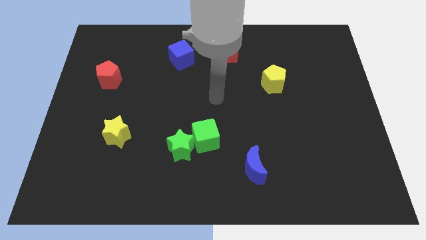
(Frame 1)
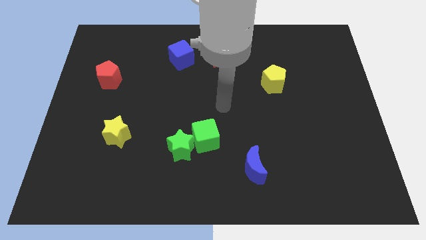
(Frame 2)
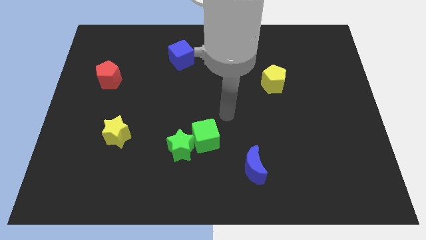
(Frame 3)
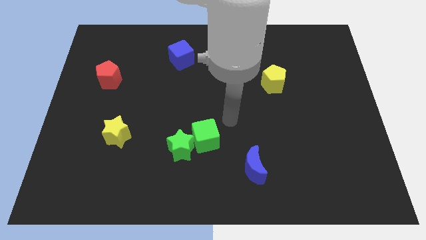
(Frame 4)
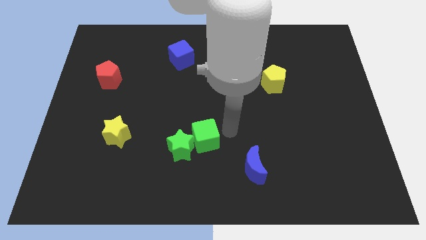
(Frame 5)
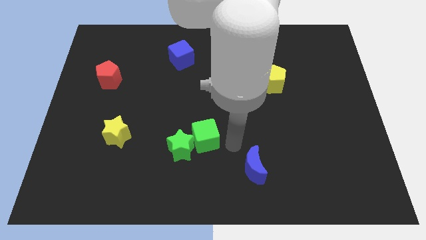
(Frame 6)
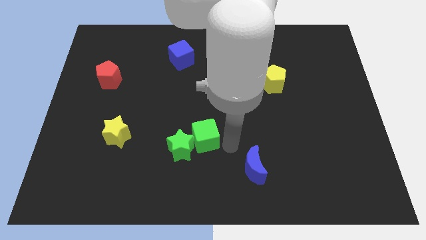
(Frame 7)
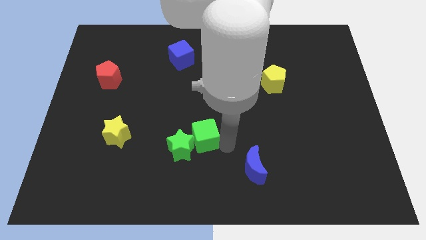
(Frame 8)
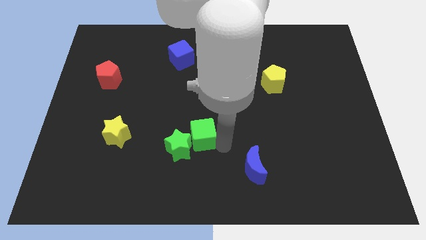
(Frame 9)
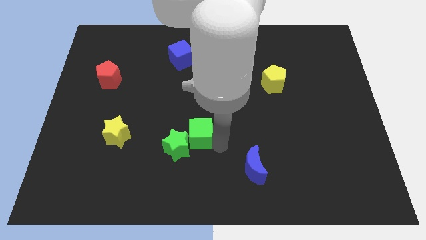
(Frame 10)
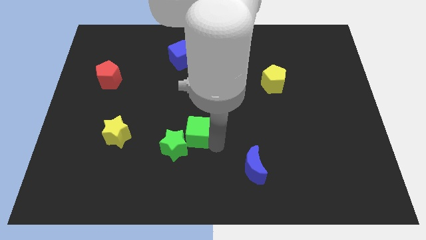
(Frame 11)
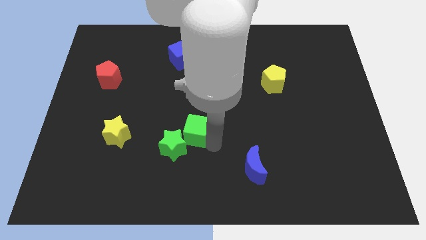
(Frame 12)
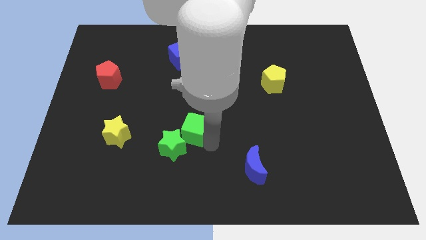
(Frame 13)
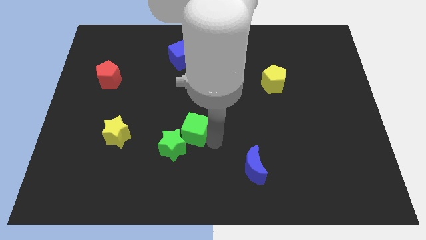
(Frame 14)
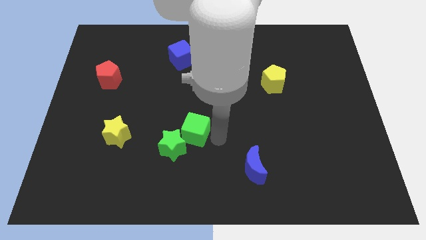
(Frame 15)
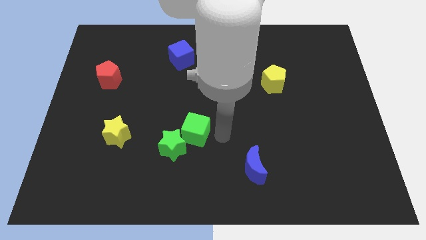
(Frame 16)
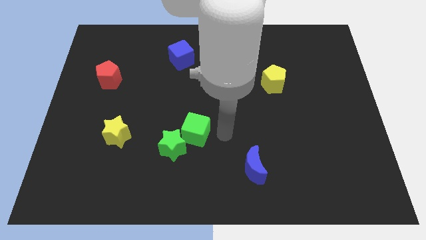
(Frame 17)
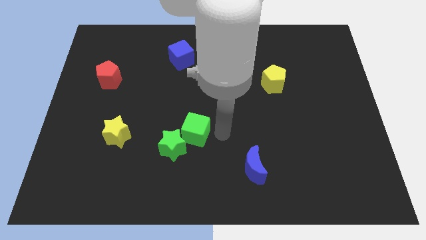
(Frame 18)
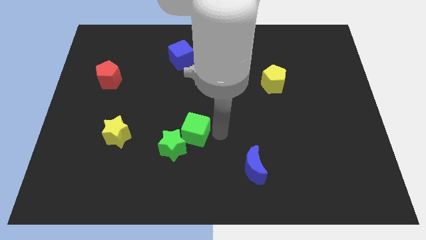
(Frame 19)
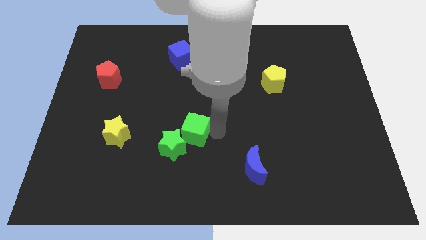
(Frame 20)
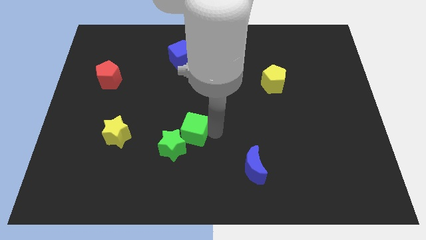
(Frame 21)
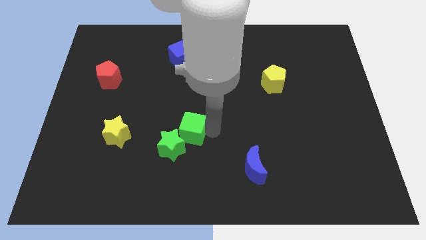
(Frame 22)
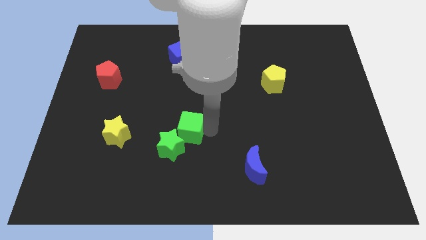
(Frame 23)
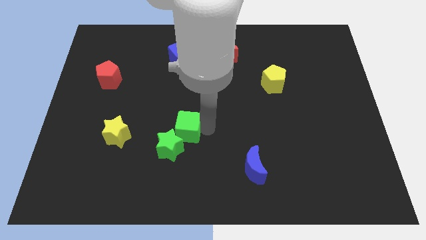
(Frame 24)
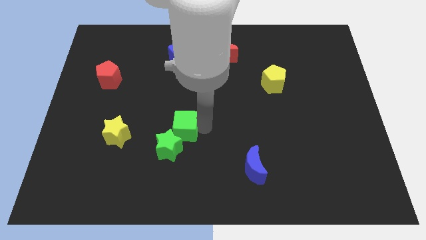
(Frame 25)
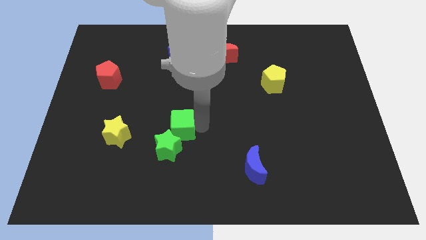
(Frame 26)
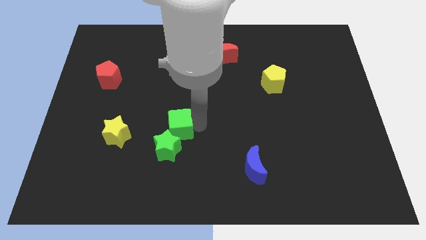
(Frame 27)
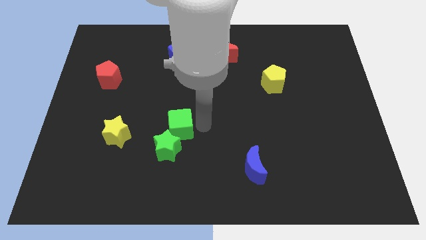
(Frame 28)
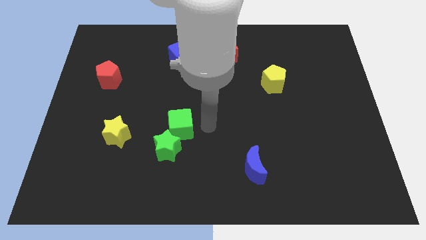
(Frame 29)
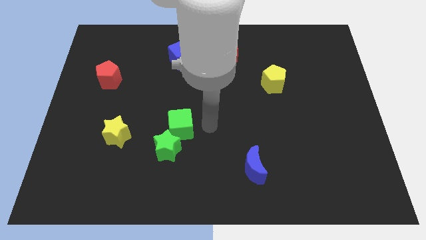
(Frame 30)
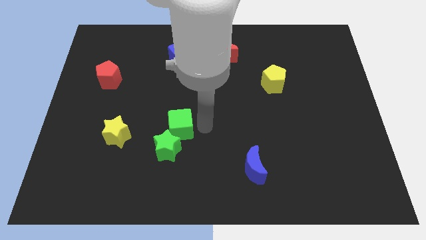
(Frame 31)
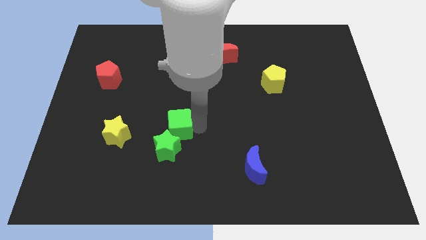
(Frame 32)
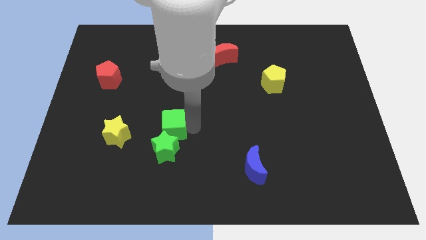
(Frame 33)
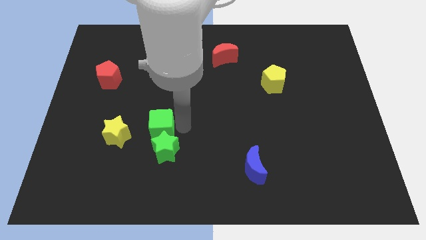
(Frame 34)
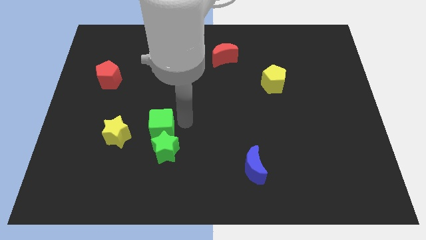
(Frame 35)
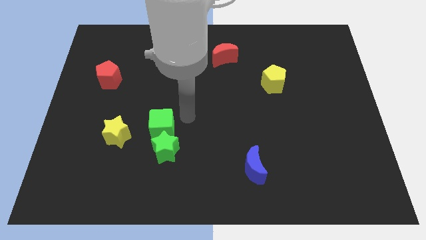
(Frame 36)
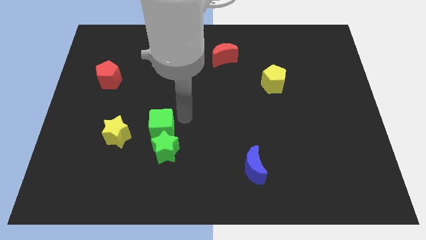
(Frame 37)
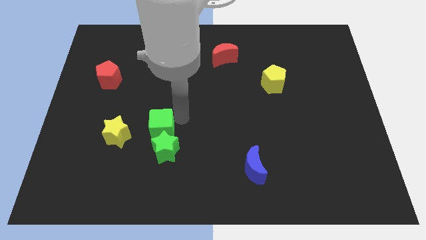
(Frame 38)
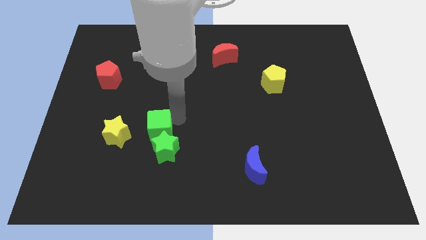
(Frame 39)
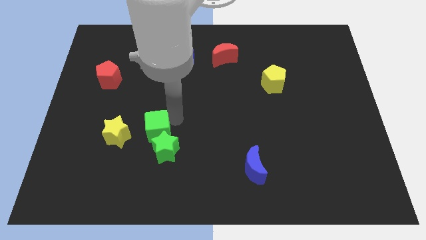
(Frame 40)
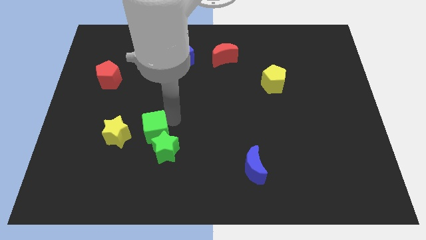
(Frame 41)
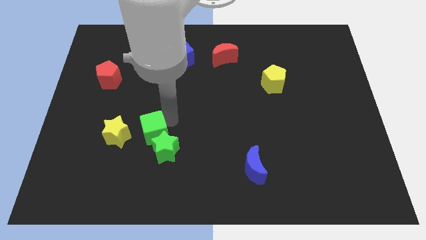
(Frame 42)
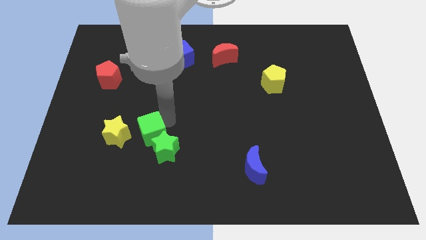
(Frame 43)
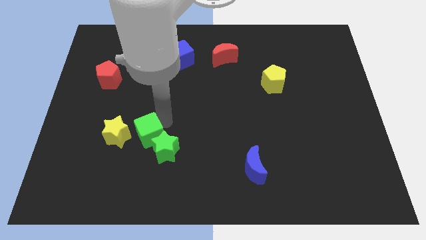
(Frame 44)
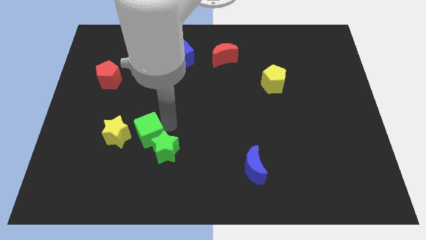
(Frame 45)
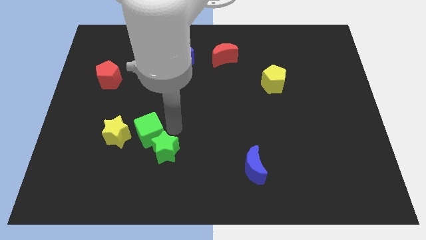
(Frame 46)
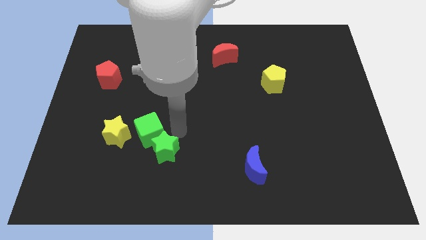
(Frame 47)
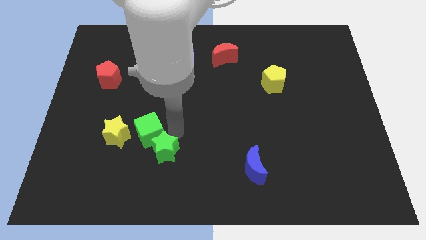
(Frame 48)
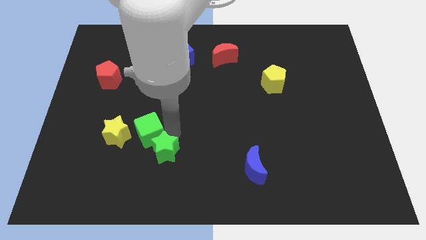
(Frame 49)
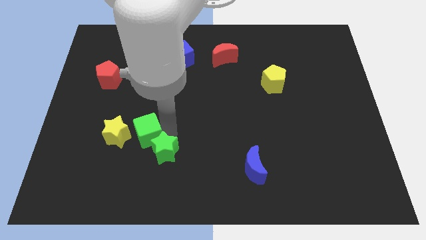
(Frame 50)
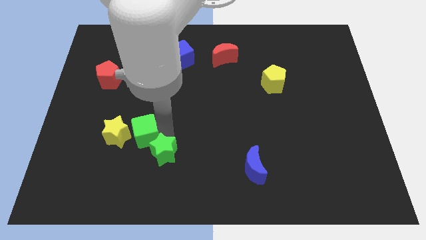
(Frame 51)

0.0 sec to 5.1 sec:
move the green cube to the yellow star

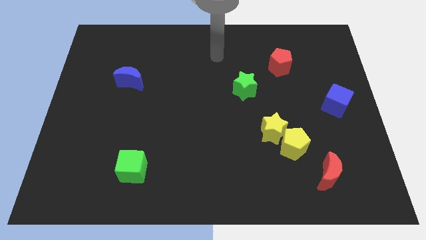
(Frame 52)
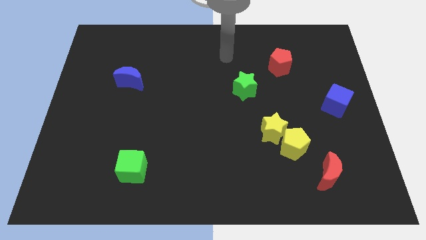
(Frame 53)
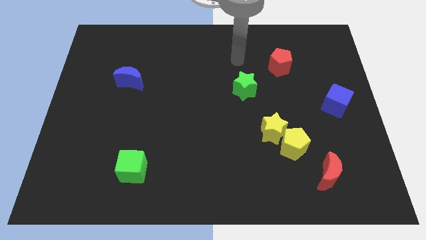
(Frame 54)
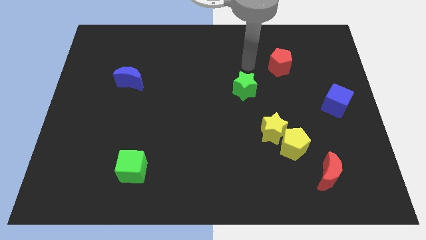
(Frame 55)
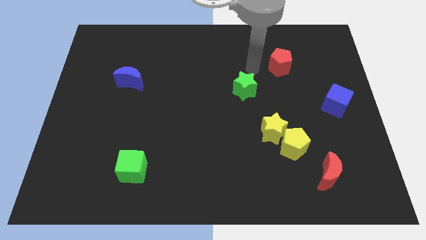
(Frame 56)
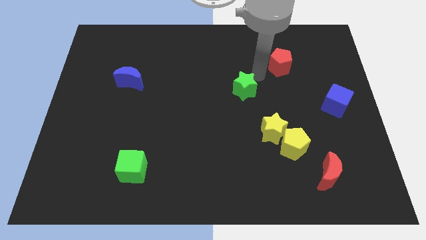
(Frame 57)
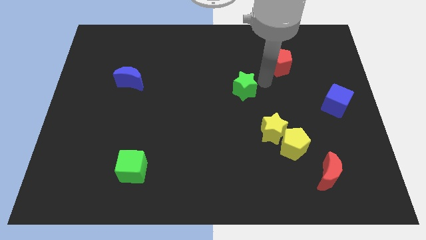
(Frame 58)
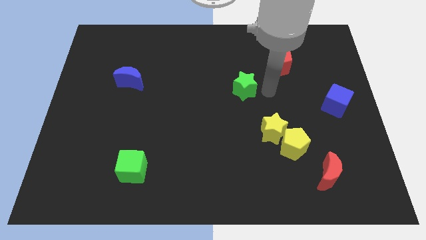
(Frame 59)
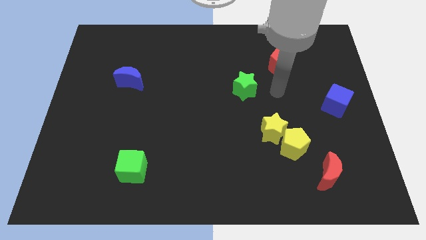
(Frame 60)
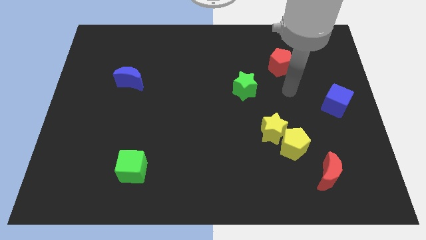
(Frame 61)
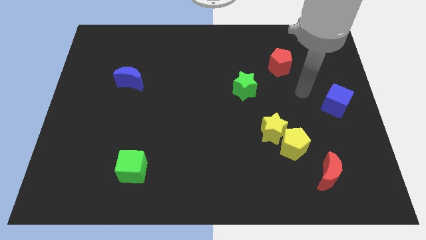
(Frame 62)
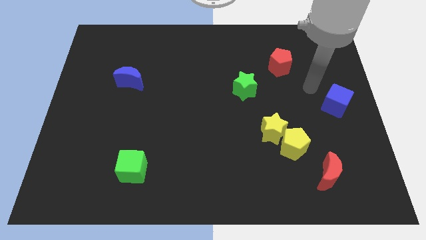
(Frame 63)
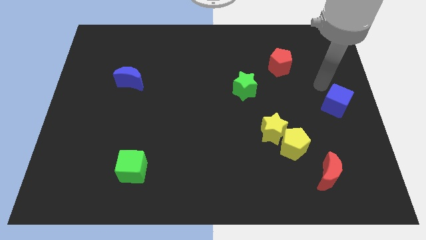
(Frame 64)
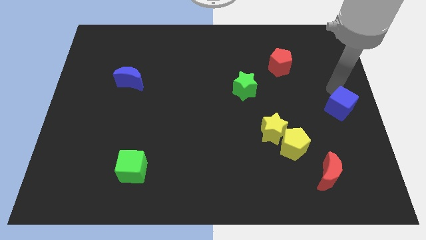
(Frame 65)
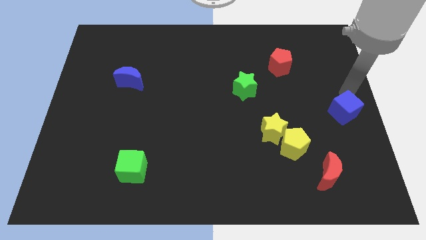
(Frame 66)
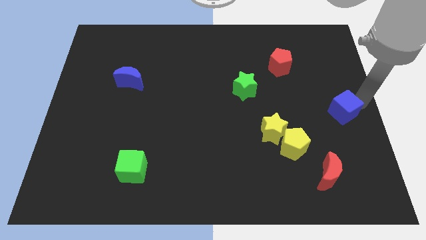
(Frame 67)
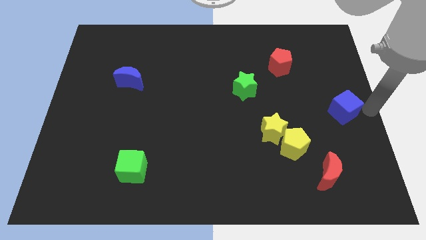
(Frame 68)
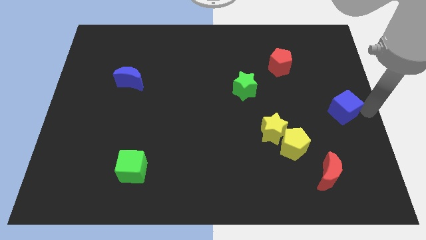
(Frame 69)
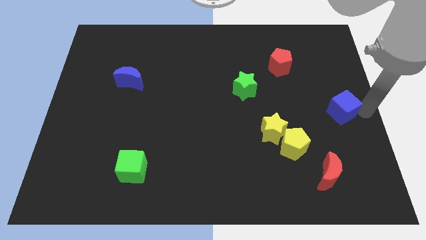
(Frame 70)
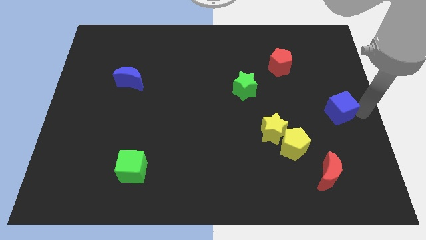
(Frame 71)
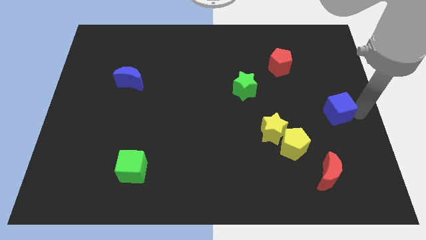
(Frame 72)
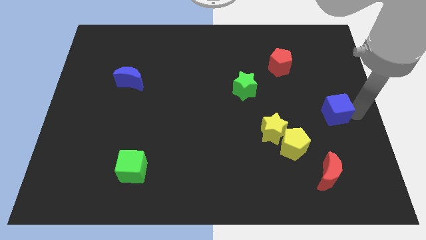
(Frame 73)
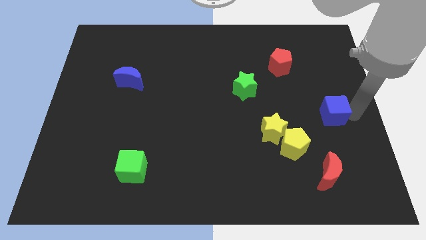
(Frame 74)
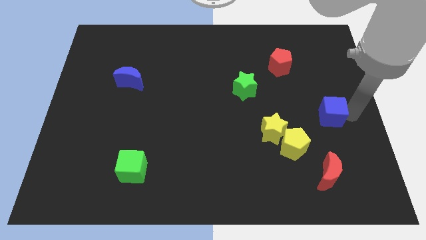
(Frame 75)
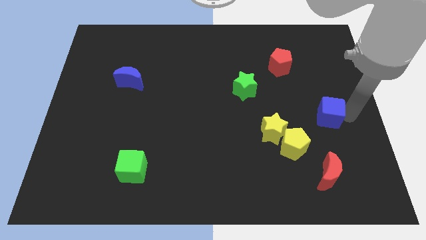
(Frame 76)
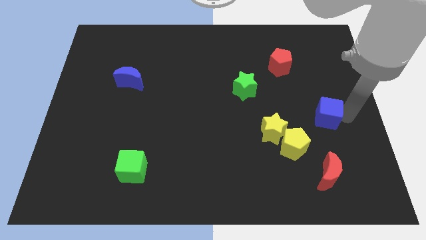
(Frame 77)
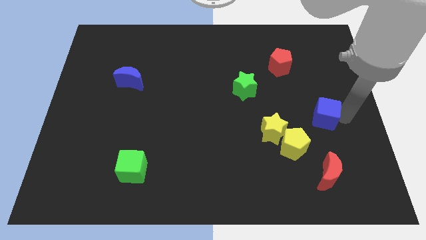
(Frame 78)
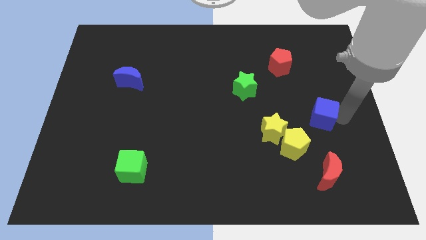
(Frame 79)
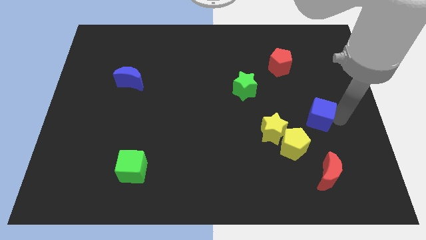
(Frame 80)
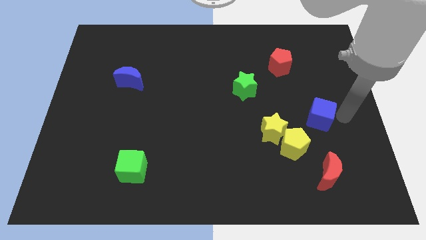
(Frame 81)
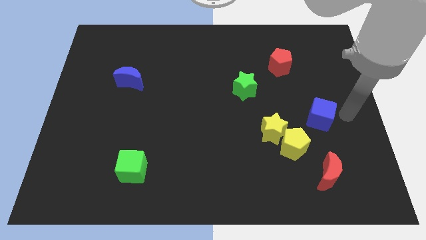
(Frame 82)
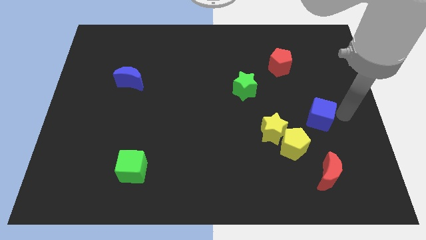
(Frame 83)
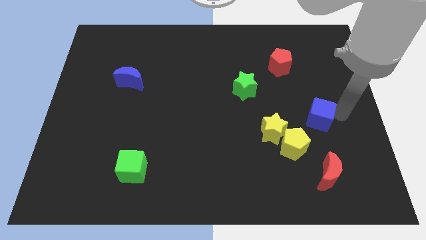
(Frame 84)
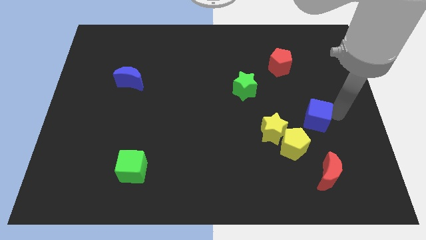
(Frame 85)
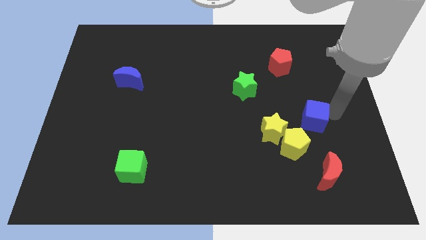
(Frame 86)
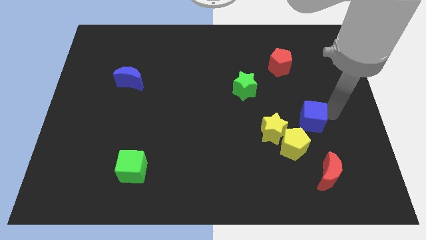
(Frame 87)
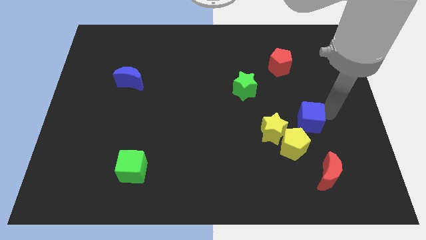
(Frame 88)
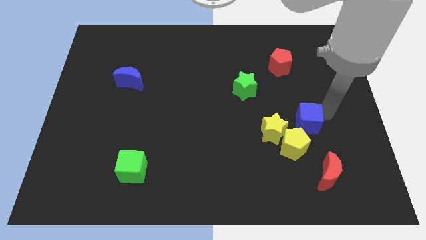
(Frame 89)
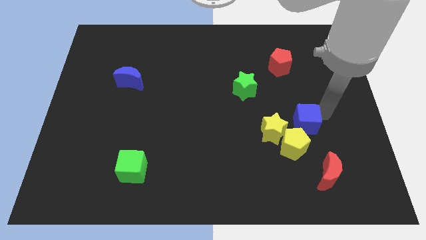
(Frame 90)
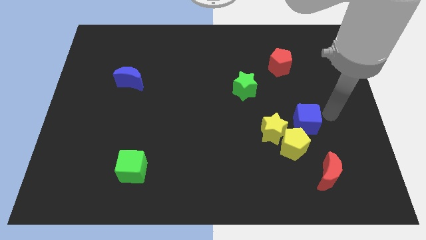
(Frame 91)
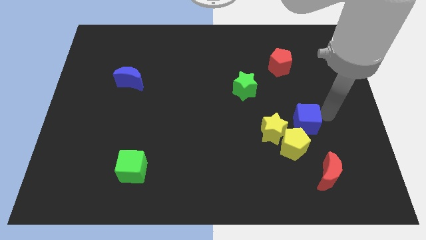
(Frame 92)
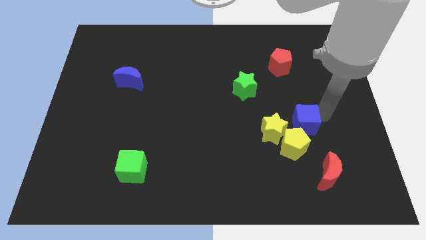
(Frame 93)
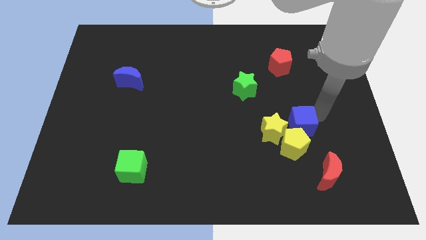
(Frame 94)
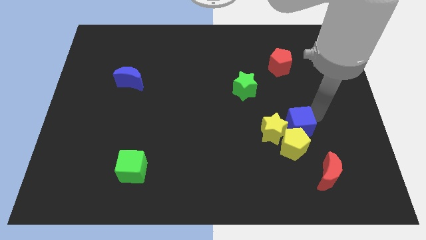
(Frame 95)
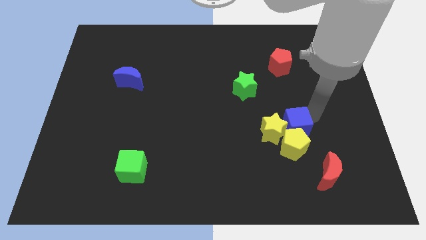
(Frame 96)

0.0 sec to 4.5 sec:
slide the blue cube close to the yellow star
